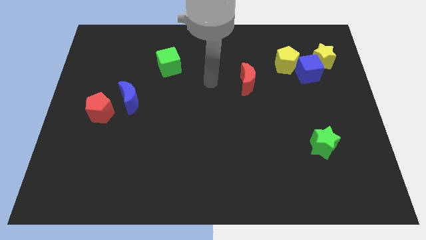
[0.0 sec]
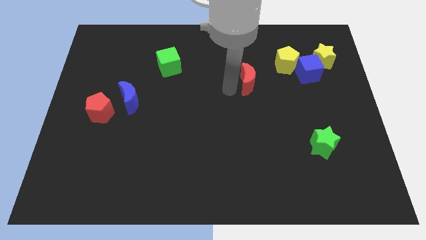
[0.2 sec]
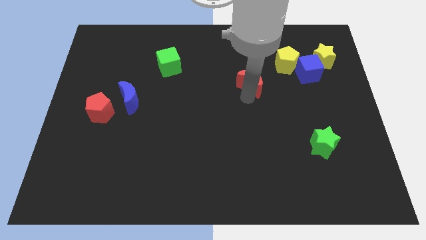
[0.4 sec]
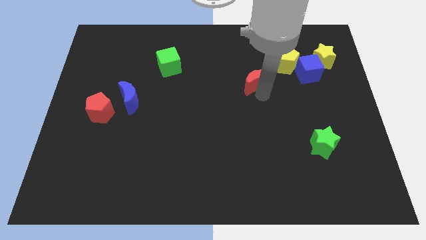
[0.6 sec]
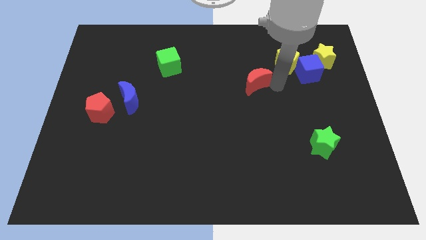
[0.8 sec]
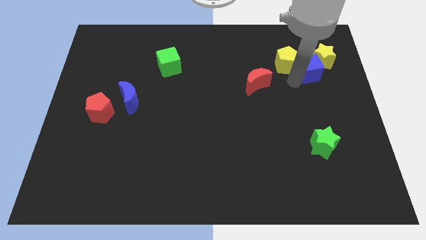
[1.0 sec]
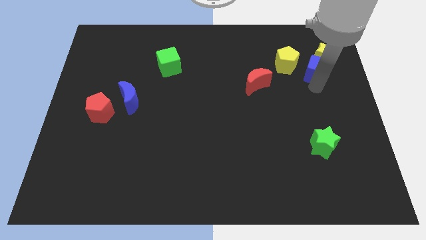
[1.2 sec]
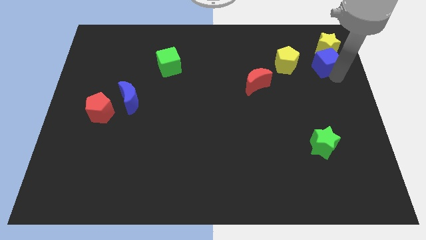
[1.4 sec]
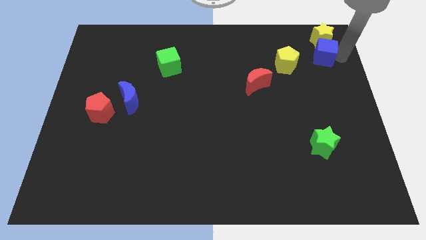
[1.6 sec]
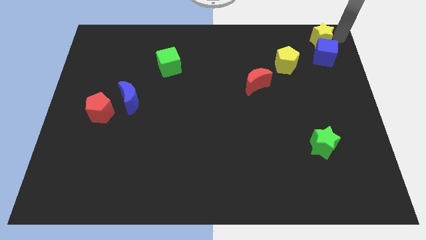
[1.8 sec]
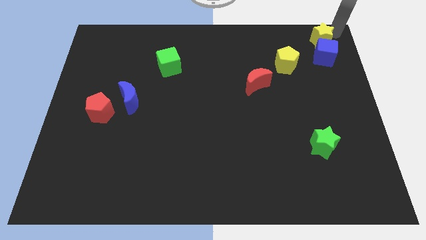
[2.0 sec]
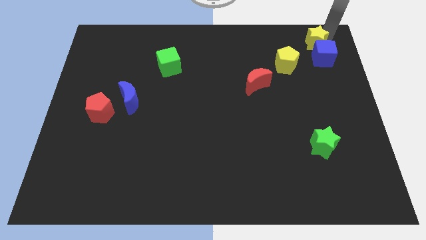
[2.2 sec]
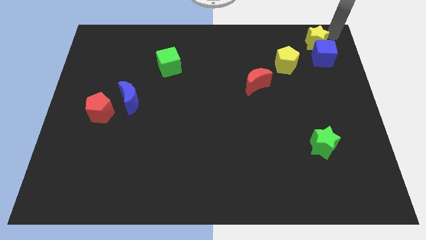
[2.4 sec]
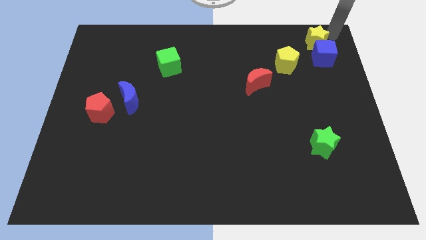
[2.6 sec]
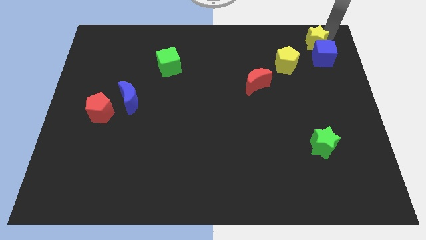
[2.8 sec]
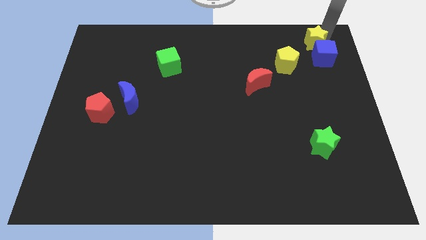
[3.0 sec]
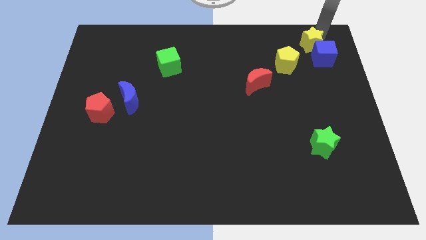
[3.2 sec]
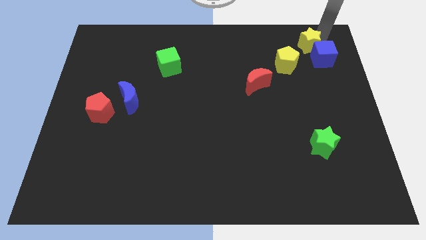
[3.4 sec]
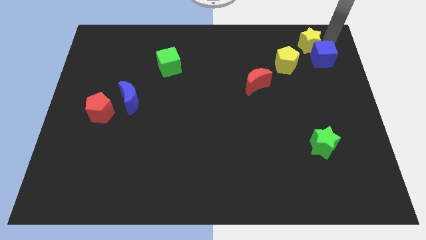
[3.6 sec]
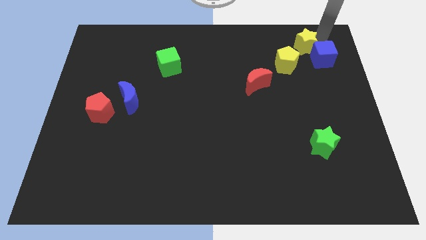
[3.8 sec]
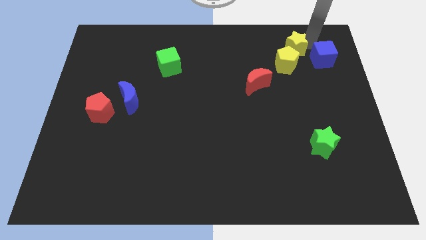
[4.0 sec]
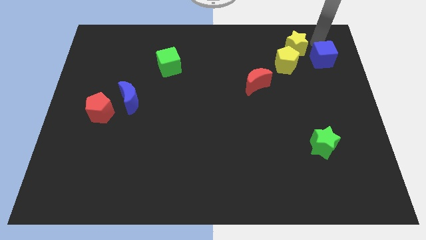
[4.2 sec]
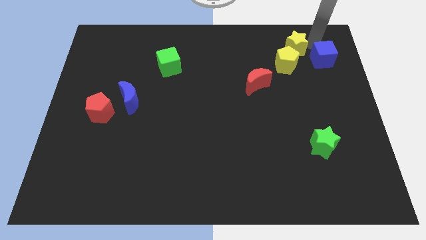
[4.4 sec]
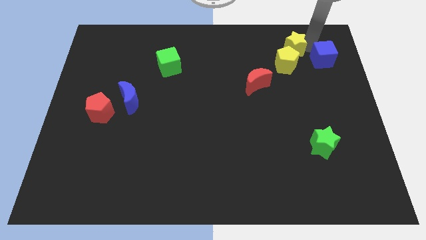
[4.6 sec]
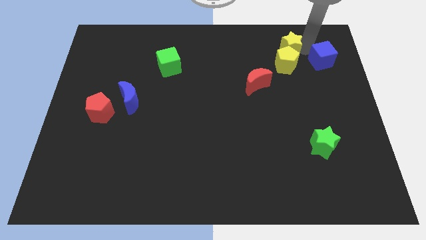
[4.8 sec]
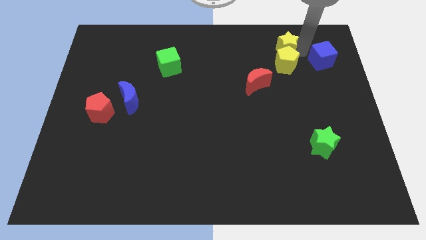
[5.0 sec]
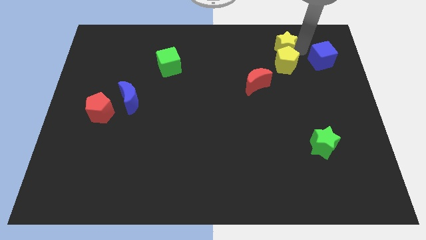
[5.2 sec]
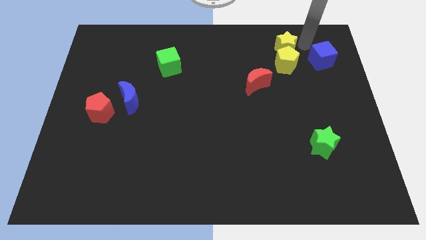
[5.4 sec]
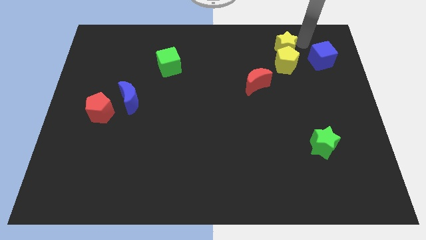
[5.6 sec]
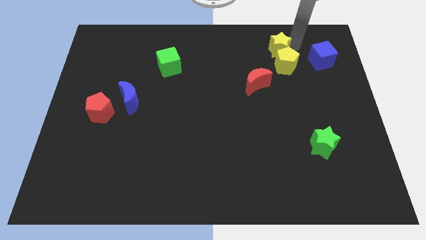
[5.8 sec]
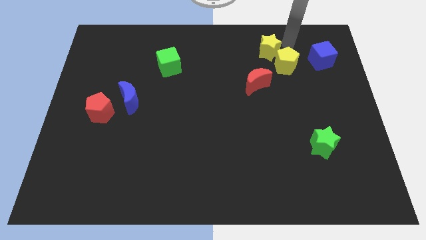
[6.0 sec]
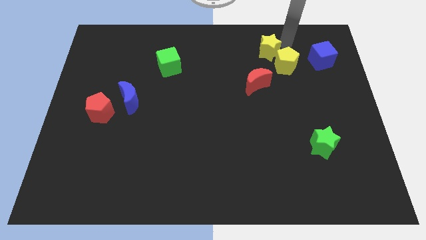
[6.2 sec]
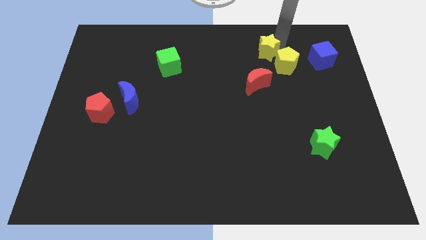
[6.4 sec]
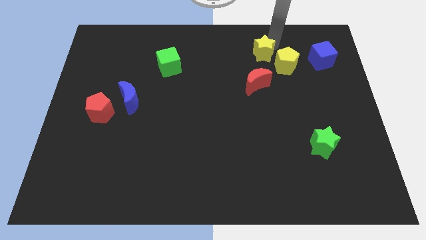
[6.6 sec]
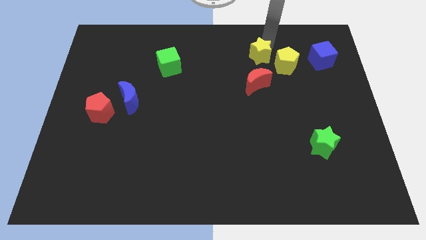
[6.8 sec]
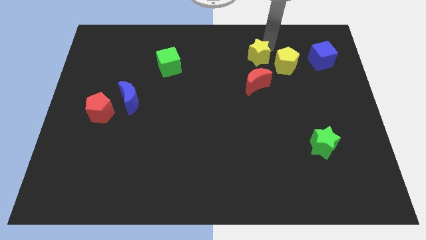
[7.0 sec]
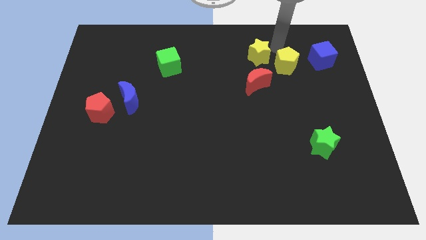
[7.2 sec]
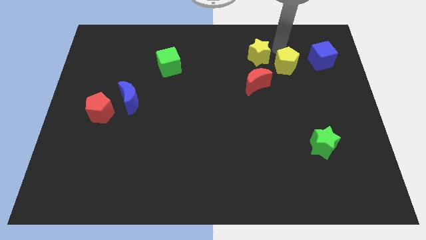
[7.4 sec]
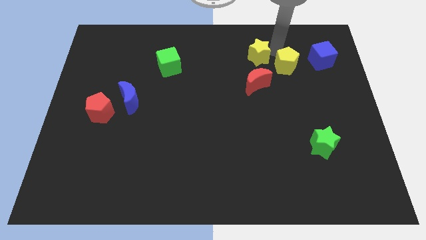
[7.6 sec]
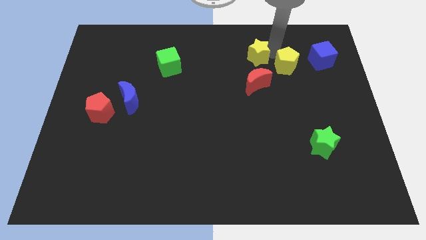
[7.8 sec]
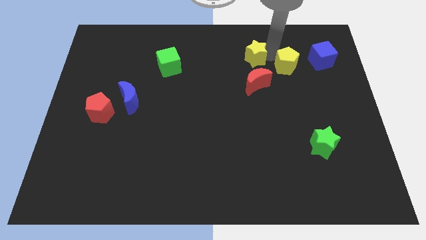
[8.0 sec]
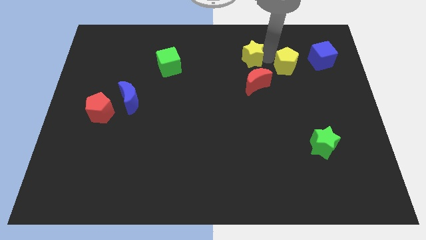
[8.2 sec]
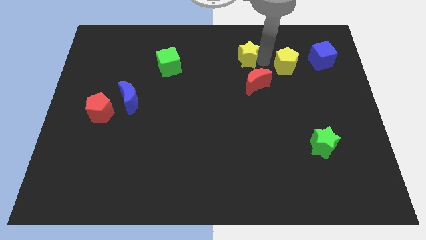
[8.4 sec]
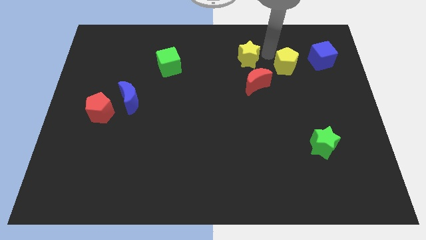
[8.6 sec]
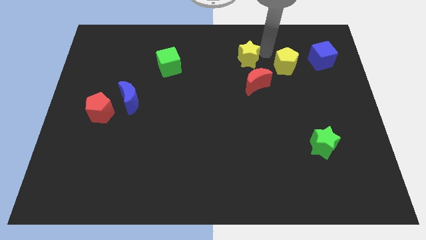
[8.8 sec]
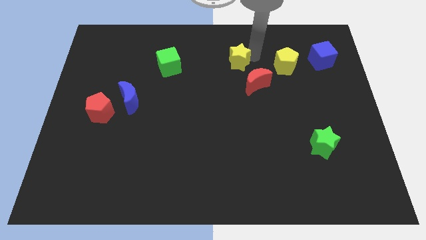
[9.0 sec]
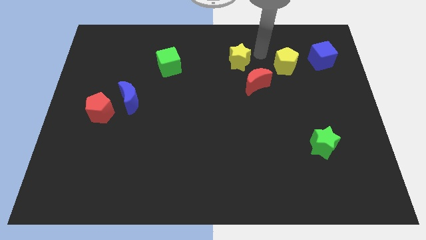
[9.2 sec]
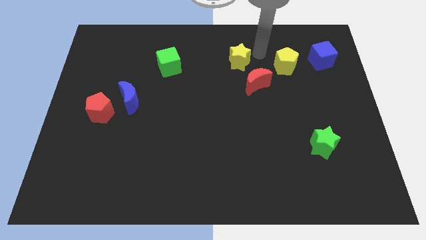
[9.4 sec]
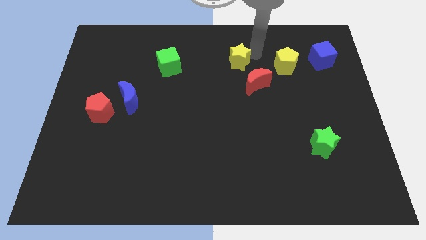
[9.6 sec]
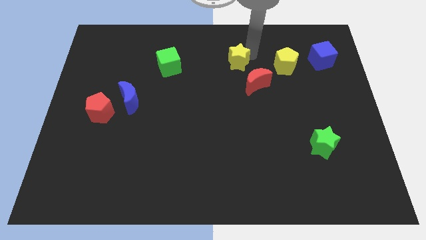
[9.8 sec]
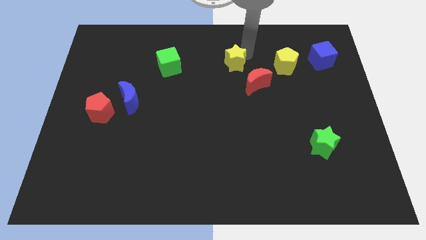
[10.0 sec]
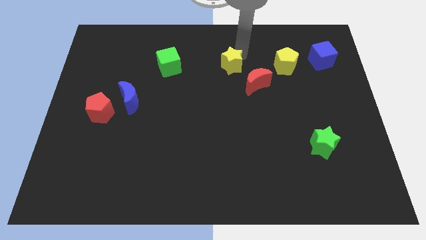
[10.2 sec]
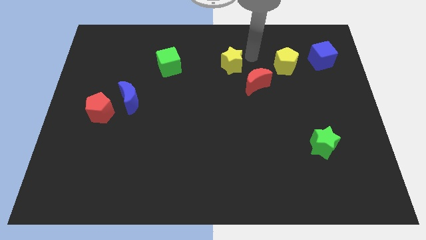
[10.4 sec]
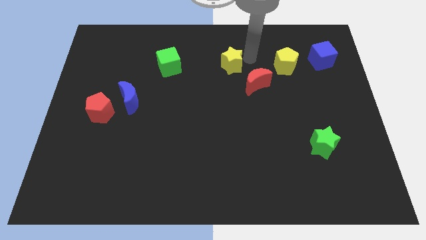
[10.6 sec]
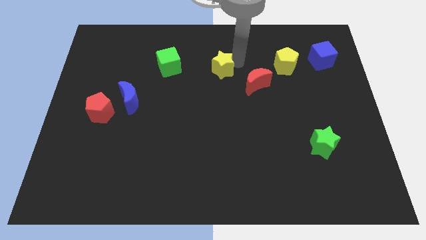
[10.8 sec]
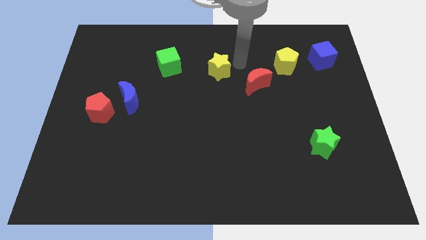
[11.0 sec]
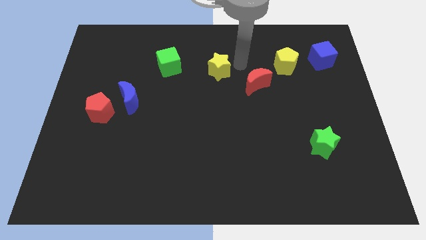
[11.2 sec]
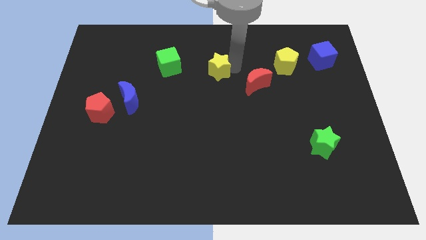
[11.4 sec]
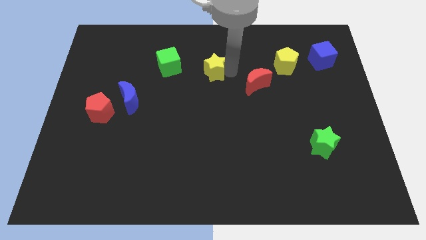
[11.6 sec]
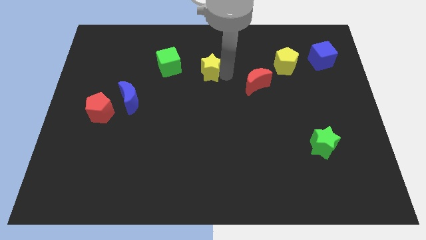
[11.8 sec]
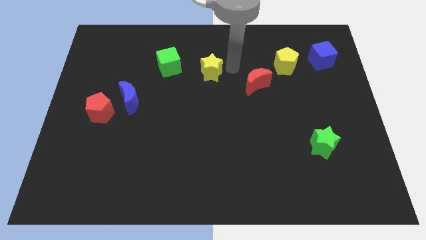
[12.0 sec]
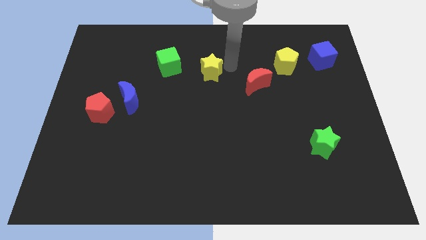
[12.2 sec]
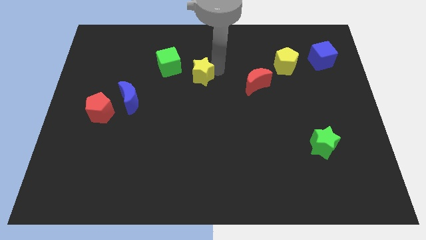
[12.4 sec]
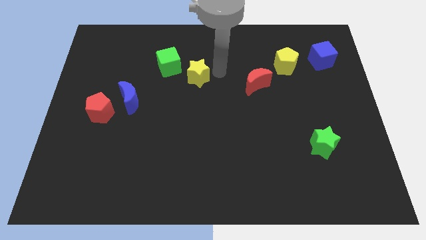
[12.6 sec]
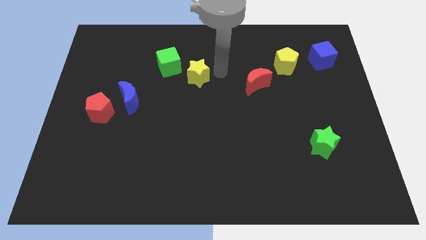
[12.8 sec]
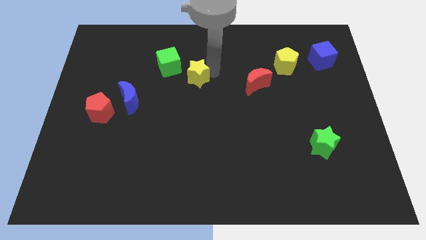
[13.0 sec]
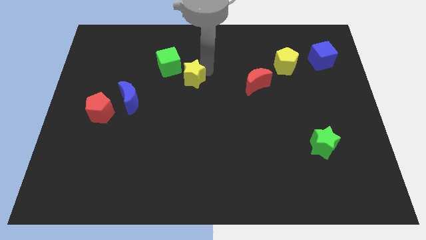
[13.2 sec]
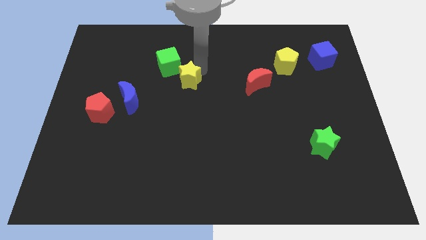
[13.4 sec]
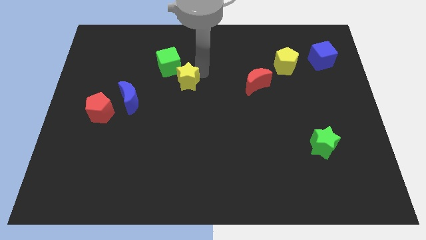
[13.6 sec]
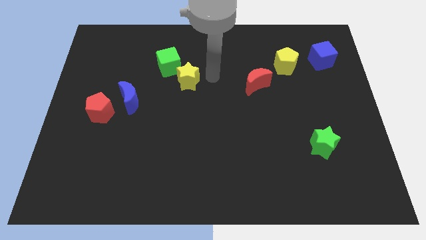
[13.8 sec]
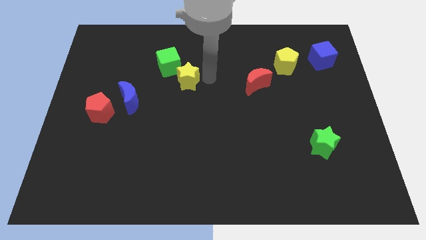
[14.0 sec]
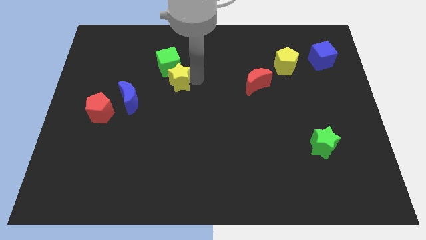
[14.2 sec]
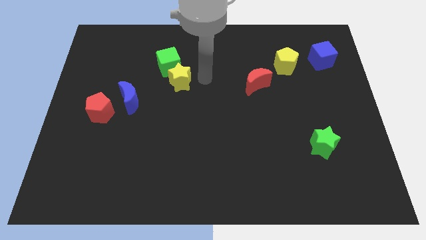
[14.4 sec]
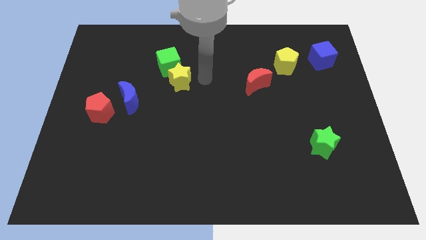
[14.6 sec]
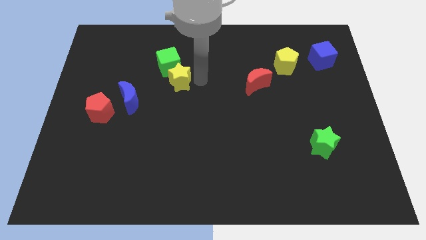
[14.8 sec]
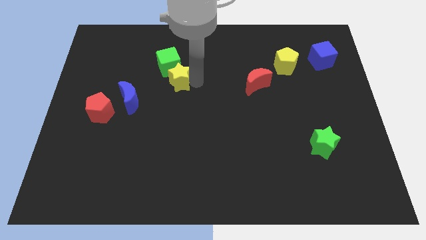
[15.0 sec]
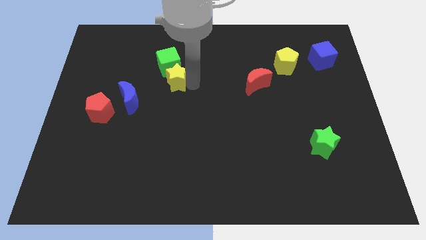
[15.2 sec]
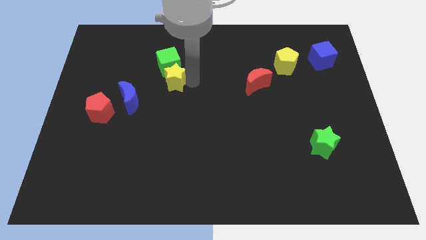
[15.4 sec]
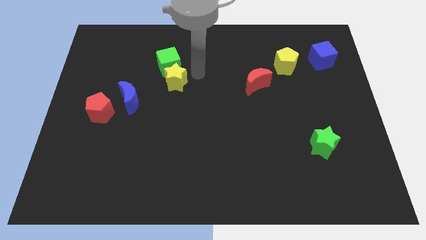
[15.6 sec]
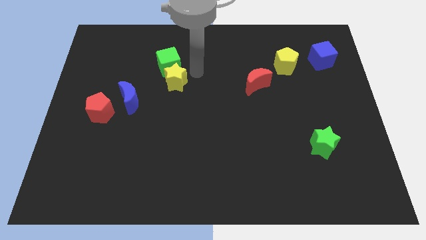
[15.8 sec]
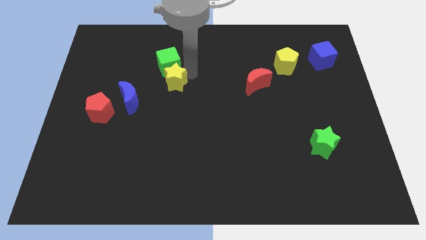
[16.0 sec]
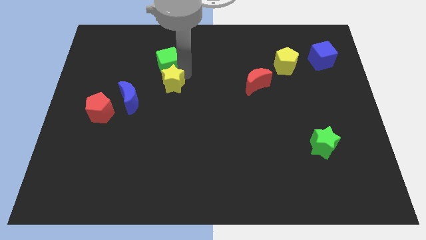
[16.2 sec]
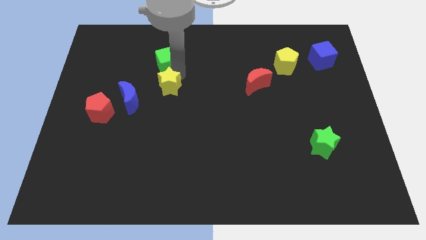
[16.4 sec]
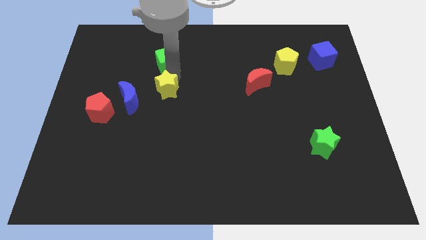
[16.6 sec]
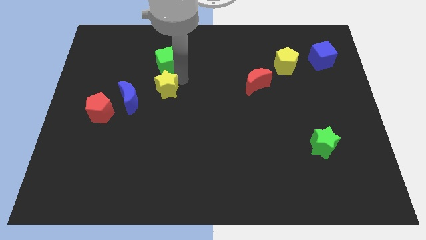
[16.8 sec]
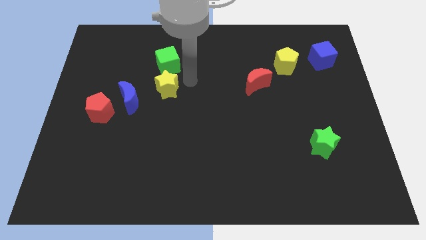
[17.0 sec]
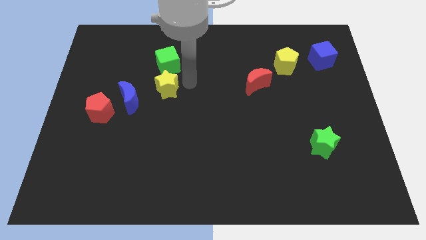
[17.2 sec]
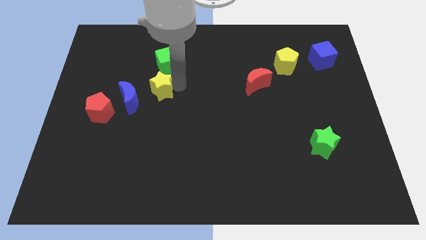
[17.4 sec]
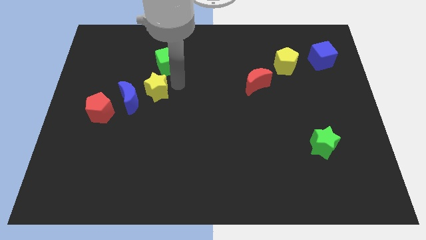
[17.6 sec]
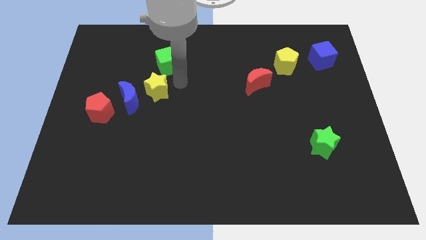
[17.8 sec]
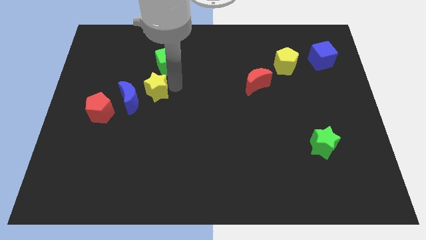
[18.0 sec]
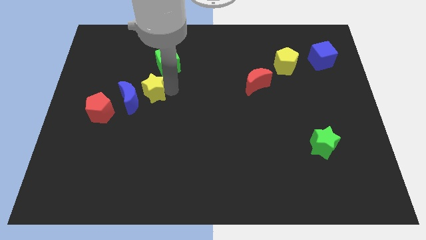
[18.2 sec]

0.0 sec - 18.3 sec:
put the yellow star towards the blue moon
